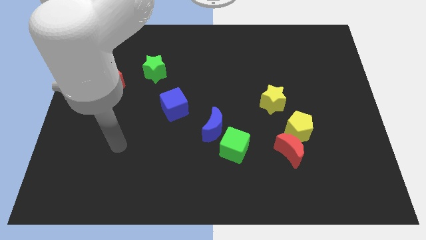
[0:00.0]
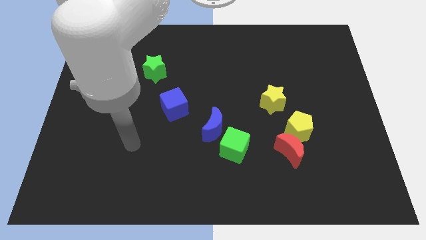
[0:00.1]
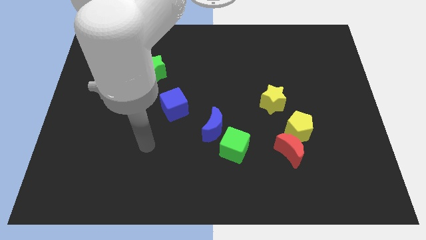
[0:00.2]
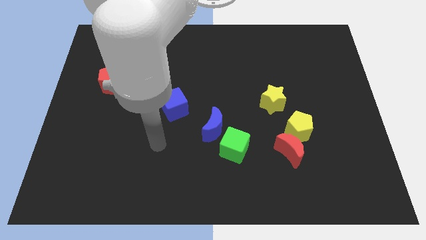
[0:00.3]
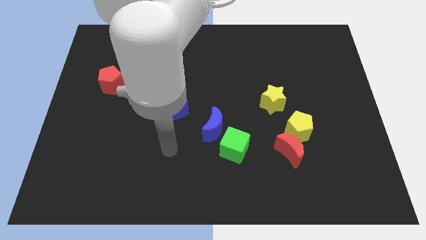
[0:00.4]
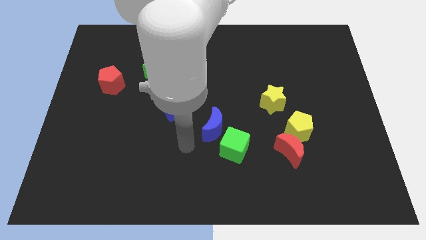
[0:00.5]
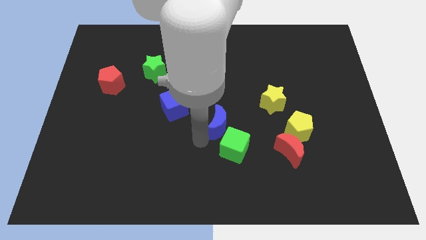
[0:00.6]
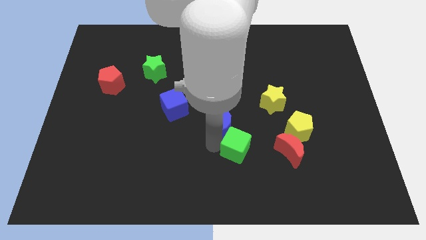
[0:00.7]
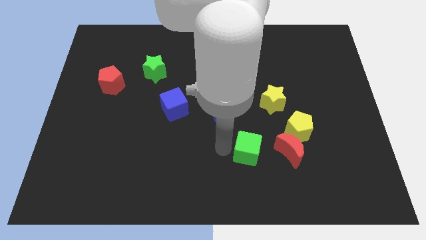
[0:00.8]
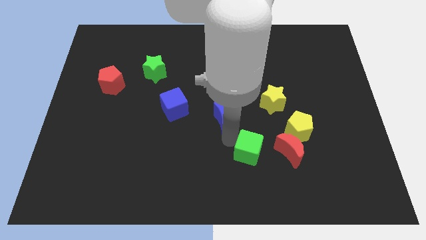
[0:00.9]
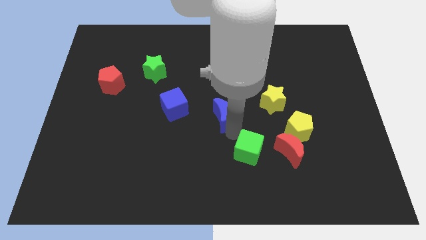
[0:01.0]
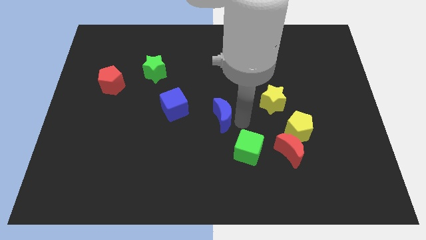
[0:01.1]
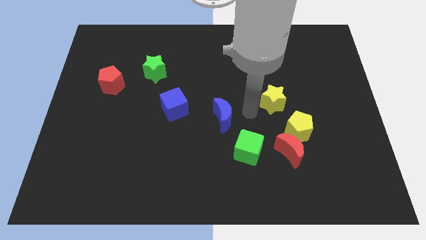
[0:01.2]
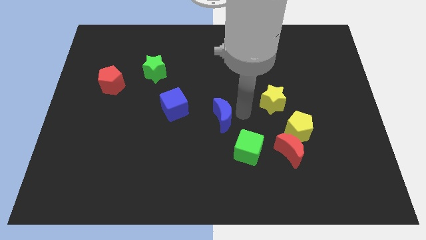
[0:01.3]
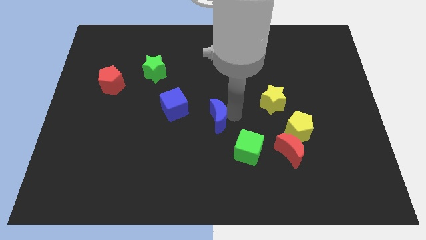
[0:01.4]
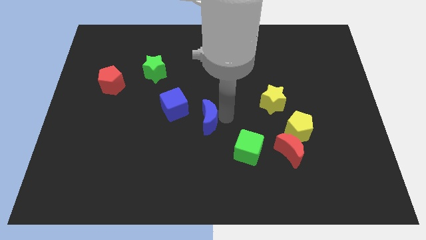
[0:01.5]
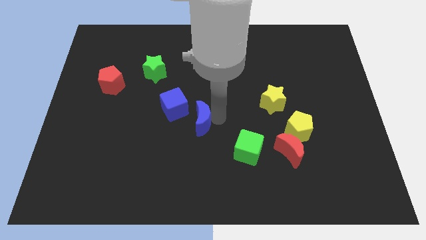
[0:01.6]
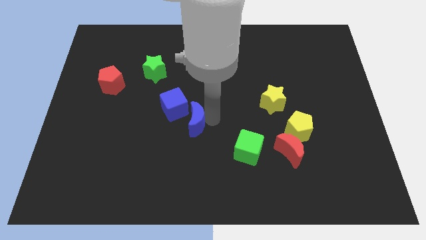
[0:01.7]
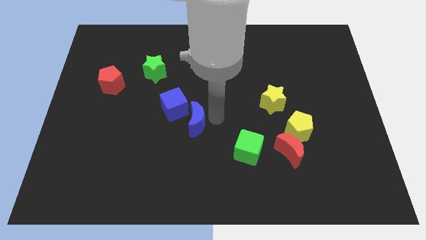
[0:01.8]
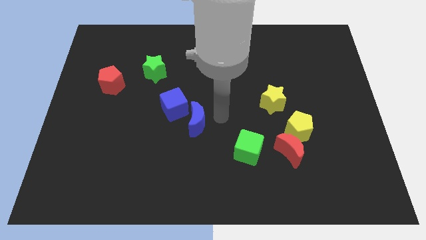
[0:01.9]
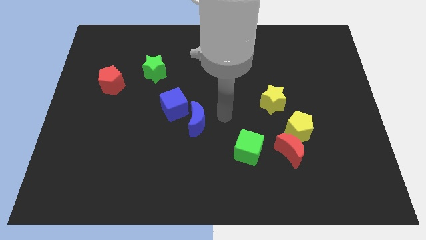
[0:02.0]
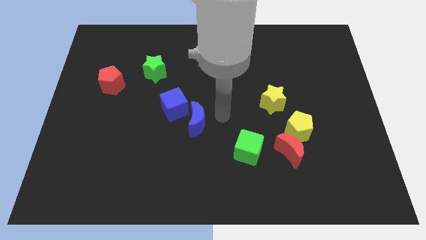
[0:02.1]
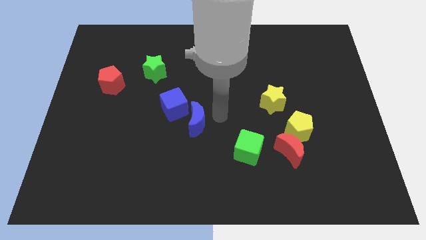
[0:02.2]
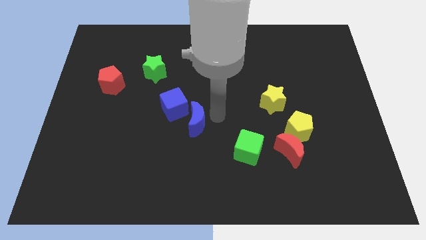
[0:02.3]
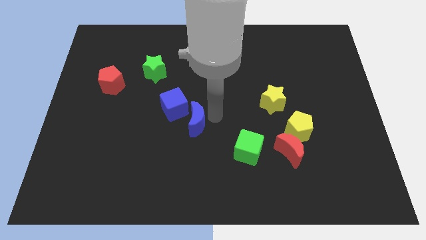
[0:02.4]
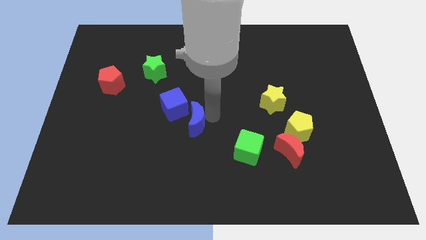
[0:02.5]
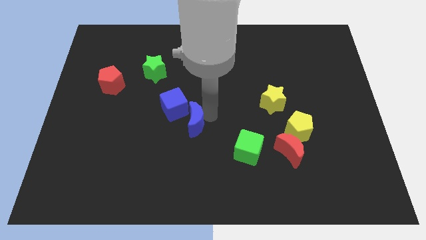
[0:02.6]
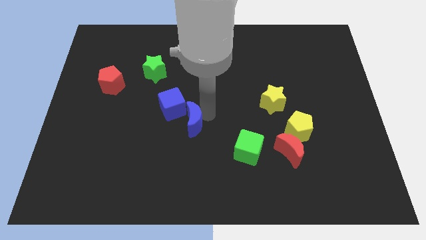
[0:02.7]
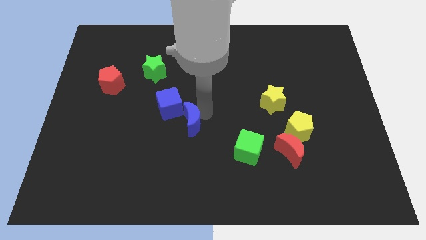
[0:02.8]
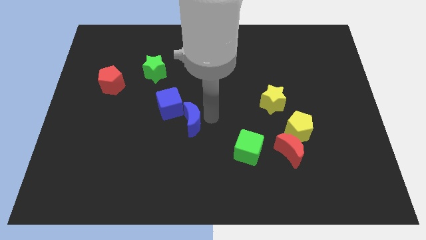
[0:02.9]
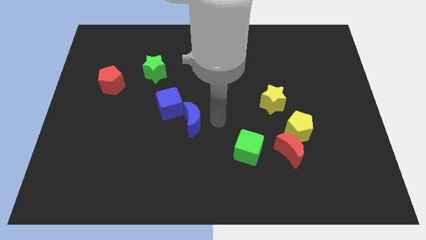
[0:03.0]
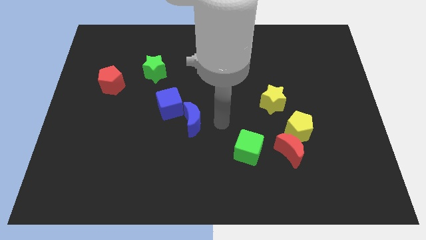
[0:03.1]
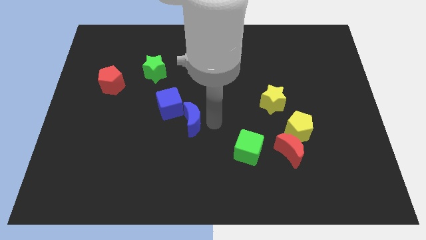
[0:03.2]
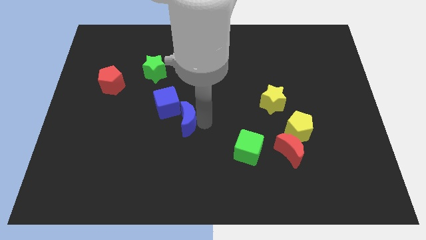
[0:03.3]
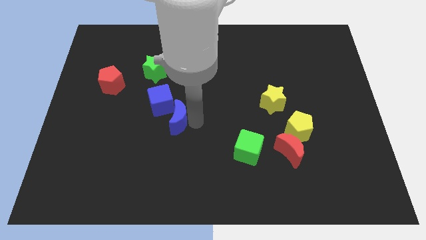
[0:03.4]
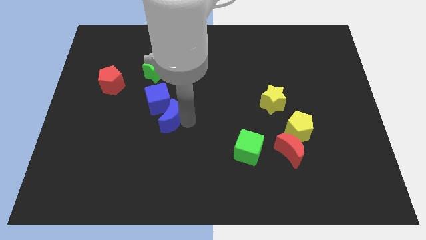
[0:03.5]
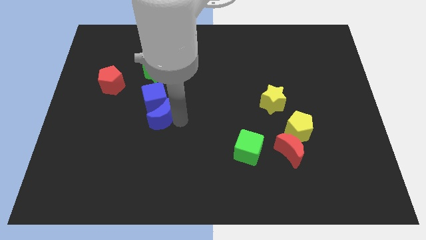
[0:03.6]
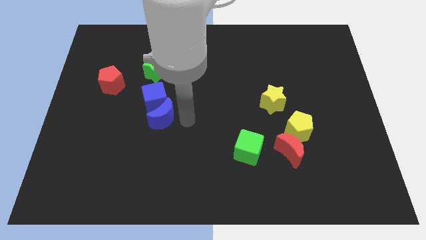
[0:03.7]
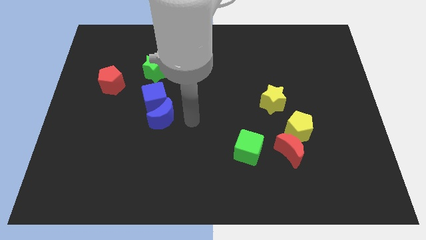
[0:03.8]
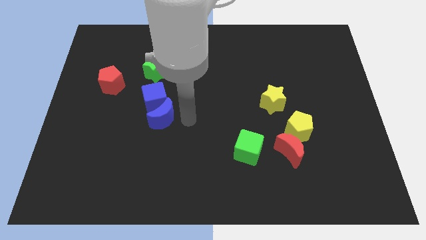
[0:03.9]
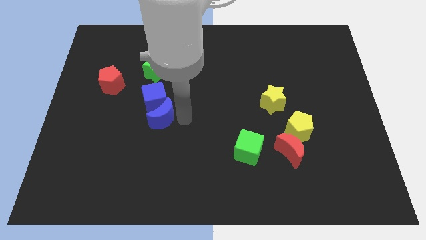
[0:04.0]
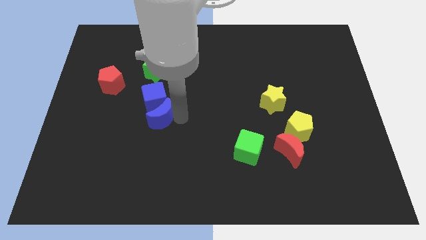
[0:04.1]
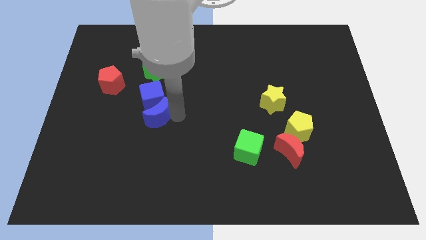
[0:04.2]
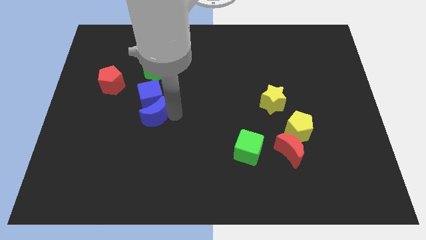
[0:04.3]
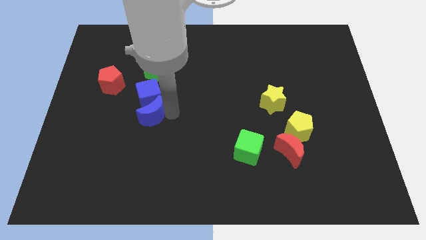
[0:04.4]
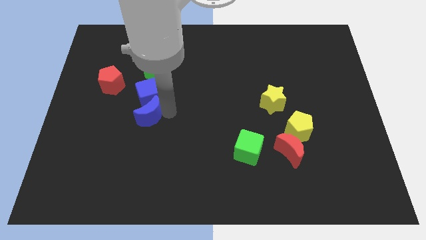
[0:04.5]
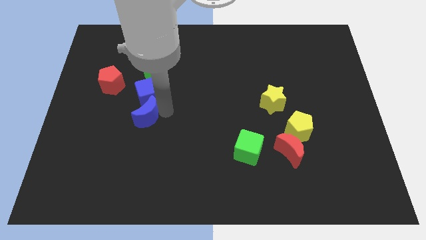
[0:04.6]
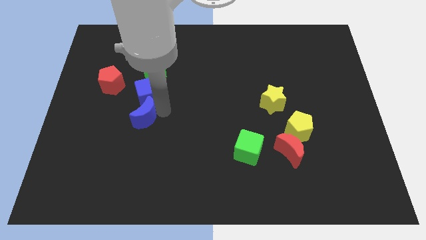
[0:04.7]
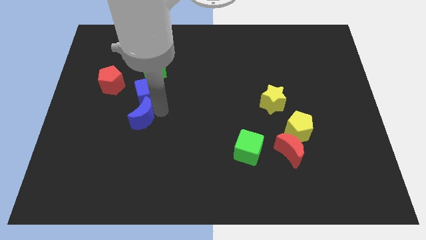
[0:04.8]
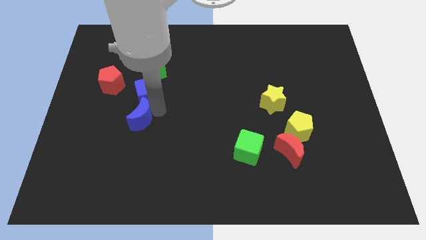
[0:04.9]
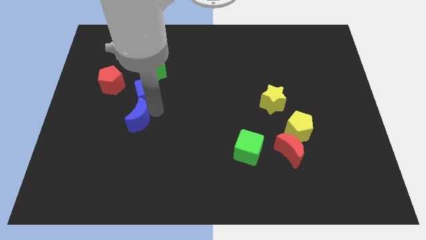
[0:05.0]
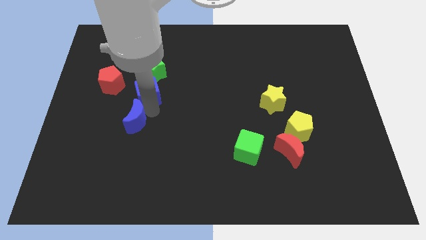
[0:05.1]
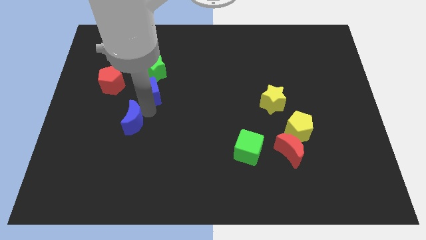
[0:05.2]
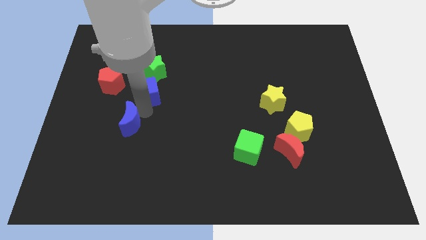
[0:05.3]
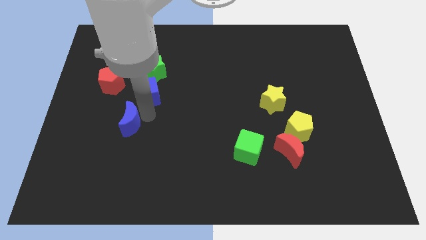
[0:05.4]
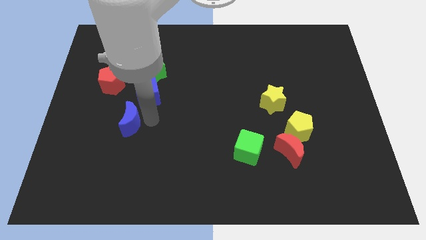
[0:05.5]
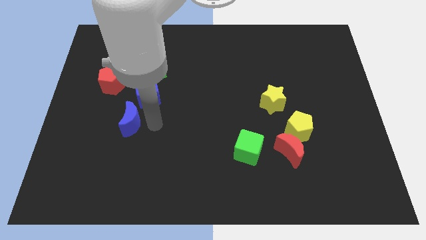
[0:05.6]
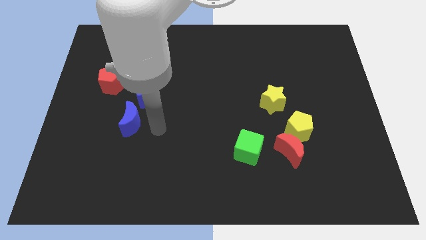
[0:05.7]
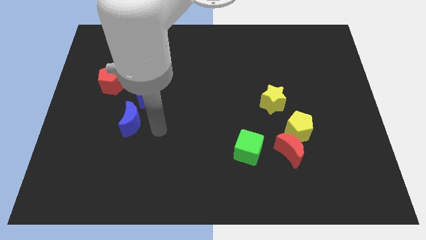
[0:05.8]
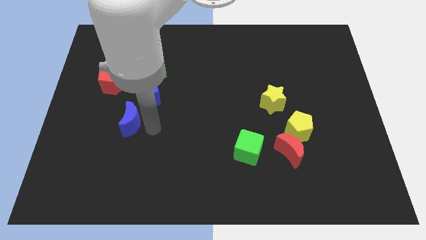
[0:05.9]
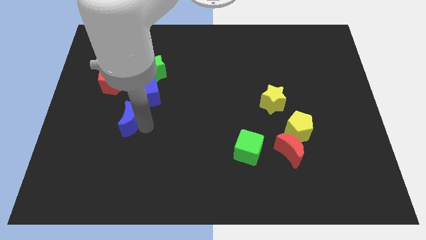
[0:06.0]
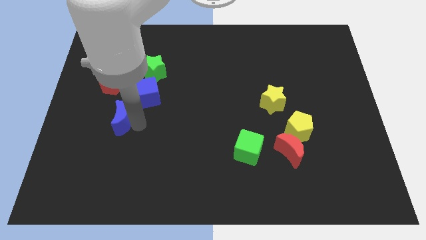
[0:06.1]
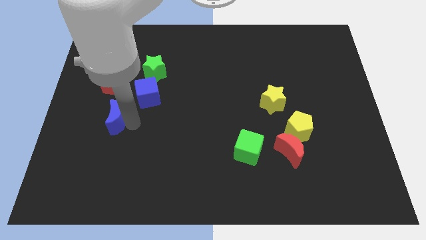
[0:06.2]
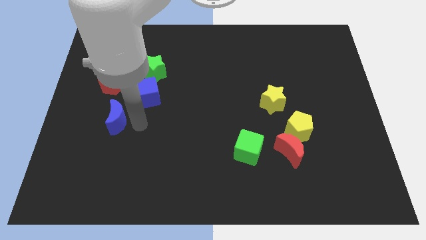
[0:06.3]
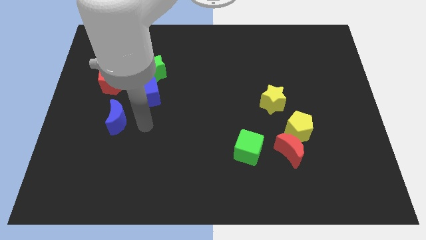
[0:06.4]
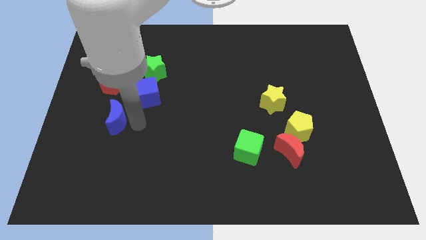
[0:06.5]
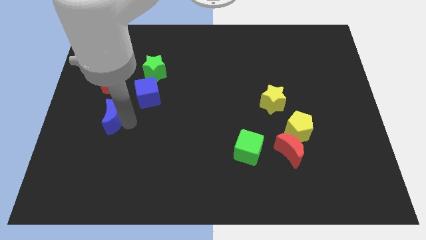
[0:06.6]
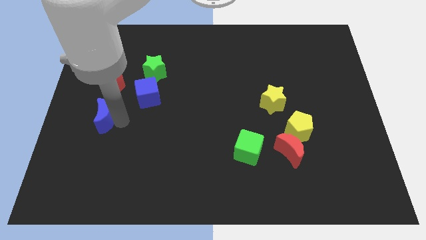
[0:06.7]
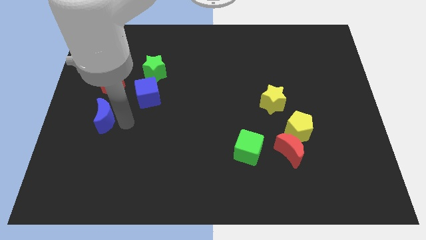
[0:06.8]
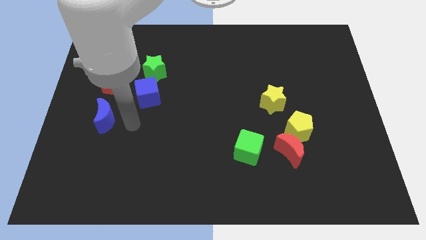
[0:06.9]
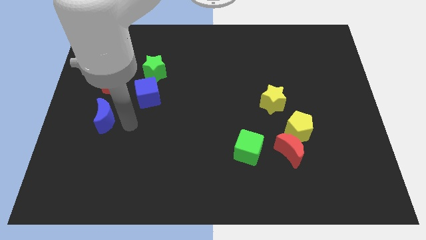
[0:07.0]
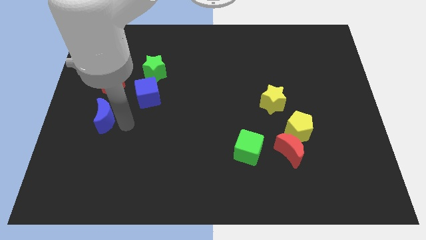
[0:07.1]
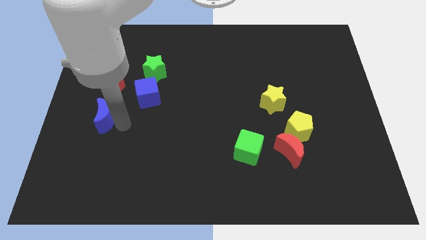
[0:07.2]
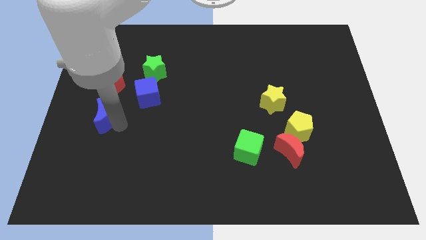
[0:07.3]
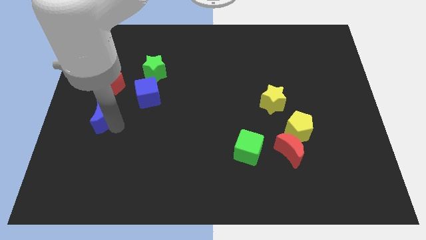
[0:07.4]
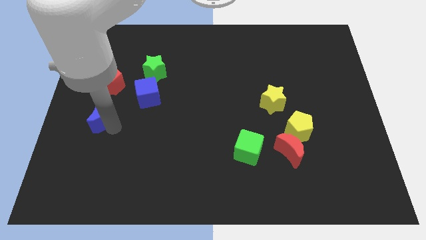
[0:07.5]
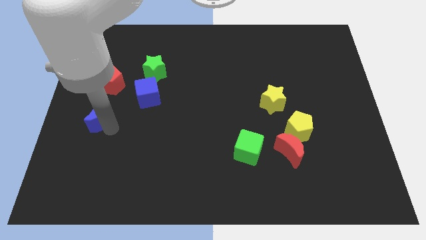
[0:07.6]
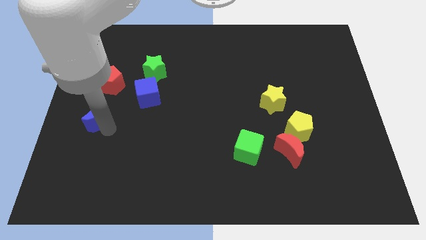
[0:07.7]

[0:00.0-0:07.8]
put the blue moon to the left side
